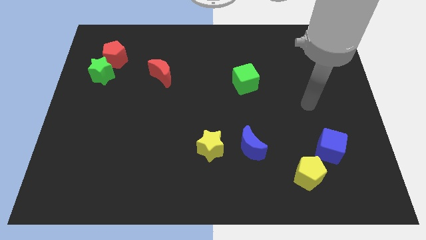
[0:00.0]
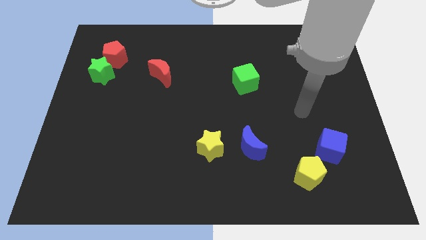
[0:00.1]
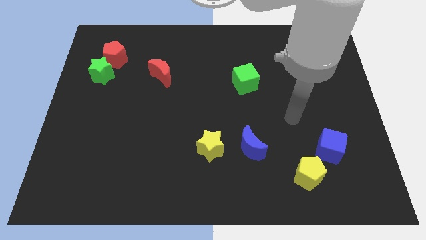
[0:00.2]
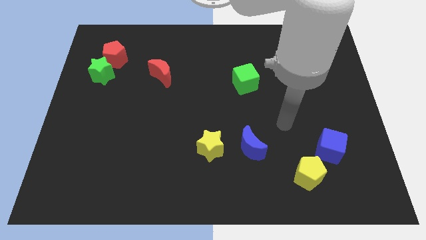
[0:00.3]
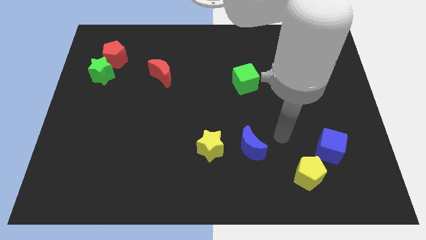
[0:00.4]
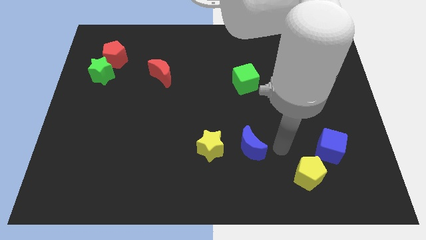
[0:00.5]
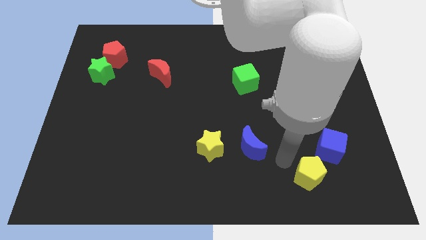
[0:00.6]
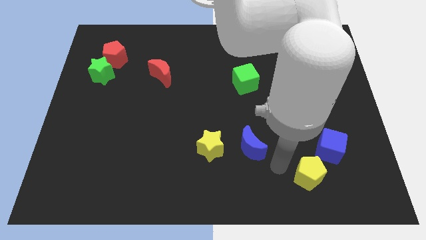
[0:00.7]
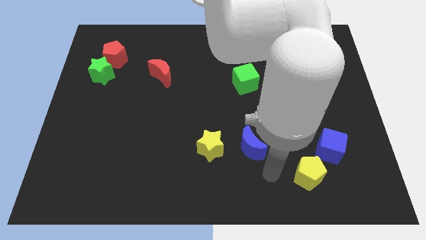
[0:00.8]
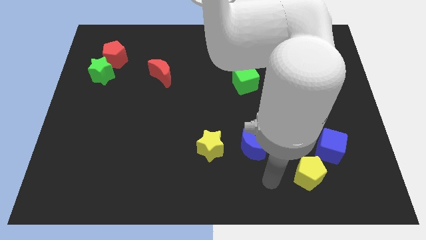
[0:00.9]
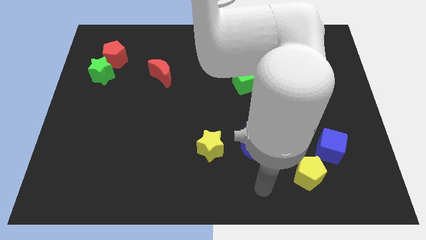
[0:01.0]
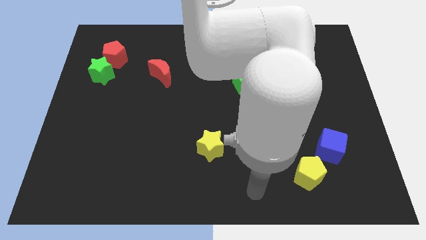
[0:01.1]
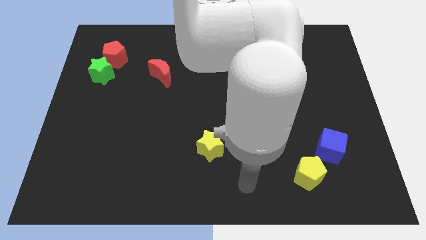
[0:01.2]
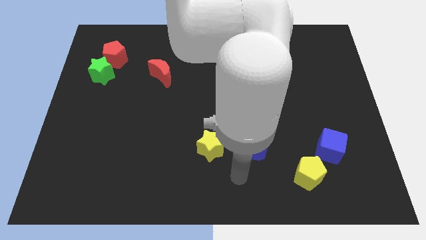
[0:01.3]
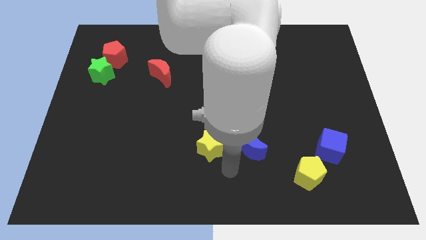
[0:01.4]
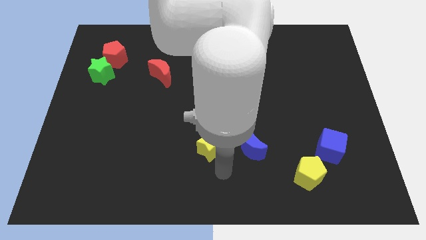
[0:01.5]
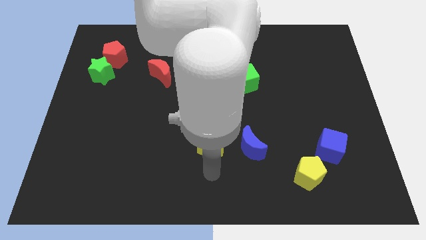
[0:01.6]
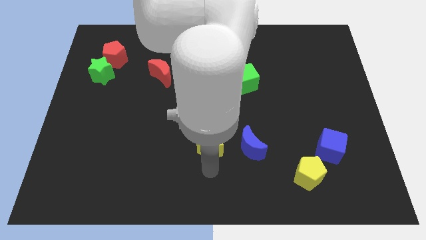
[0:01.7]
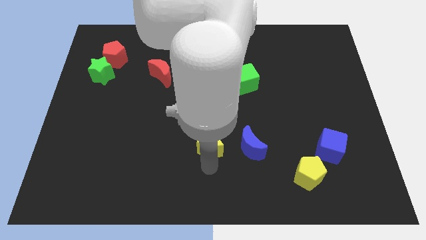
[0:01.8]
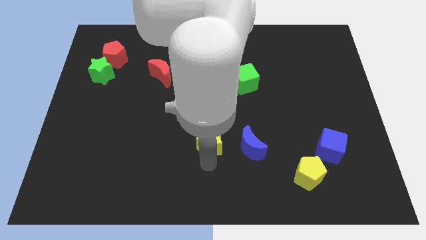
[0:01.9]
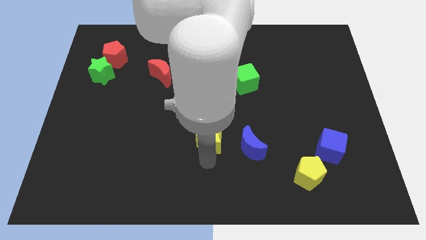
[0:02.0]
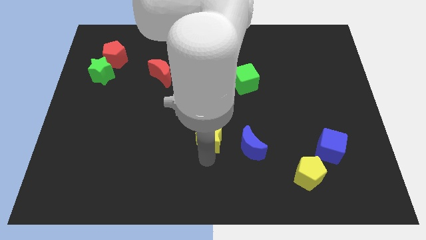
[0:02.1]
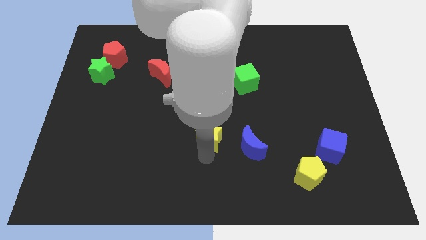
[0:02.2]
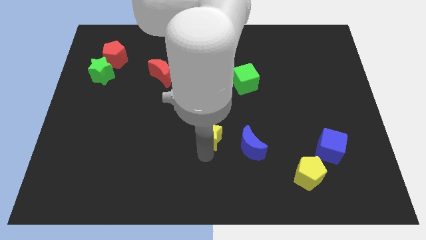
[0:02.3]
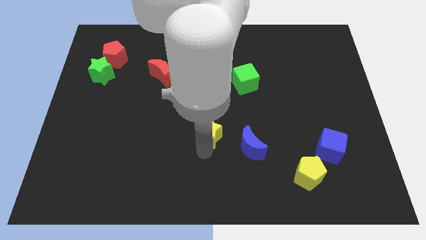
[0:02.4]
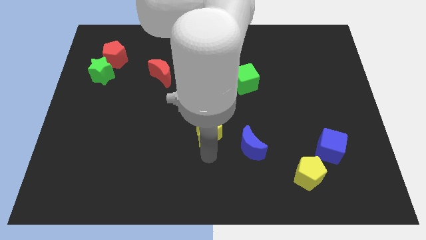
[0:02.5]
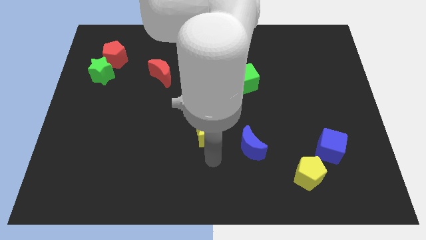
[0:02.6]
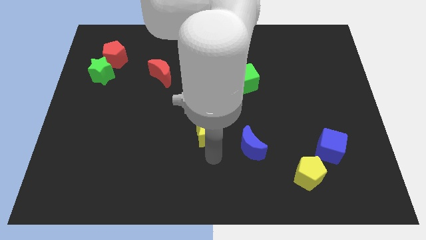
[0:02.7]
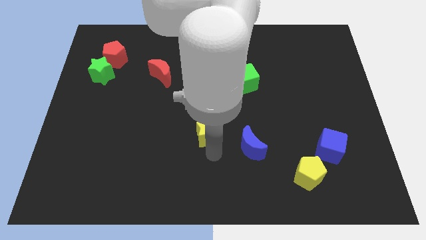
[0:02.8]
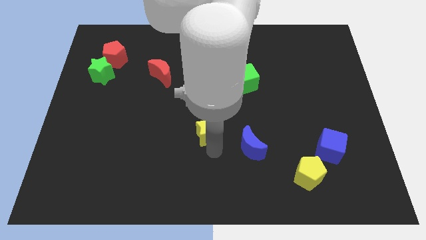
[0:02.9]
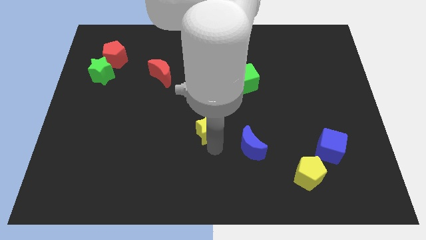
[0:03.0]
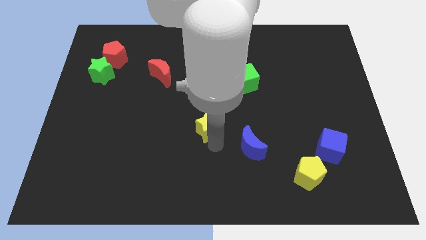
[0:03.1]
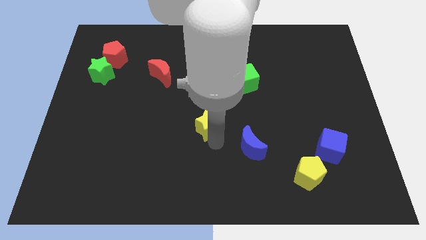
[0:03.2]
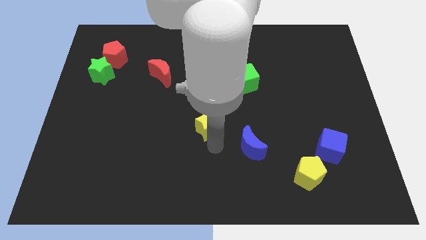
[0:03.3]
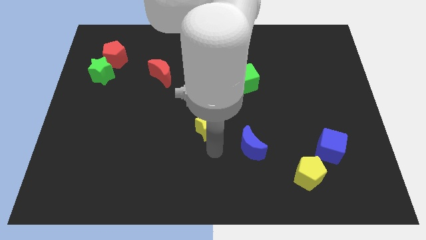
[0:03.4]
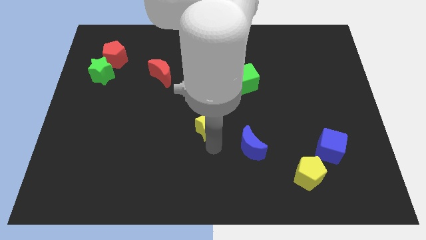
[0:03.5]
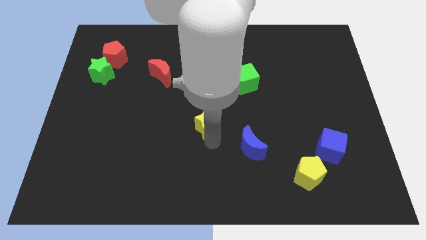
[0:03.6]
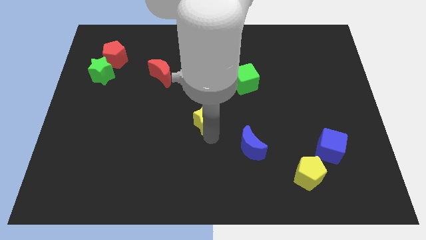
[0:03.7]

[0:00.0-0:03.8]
slide the yellow star upwards a little

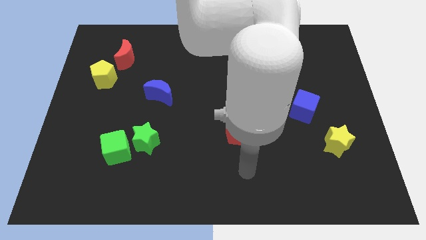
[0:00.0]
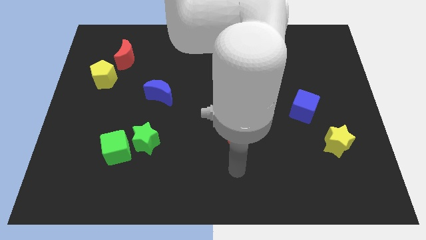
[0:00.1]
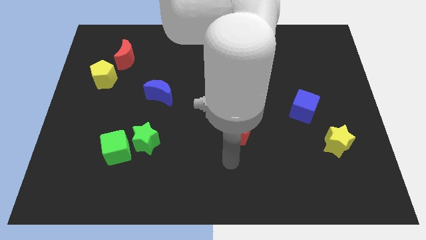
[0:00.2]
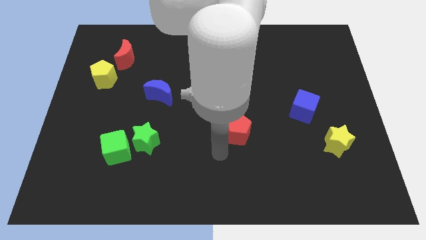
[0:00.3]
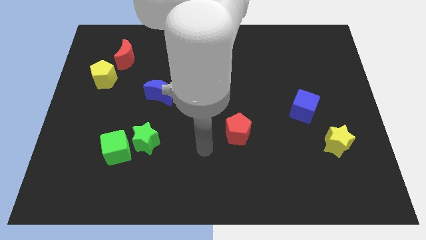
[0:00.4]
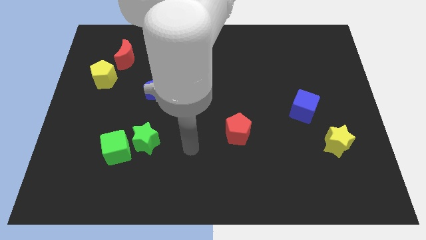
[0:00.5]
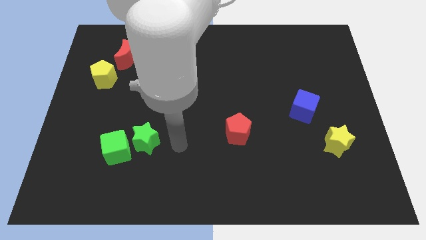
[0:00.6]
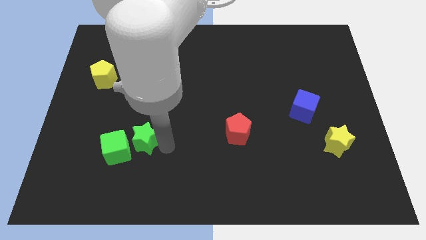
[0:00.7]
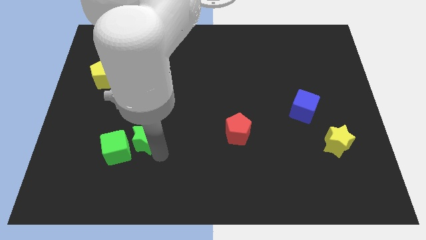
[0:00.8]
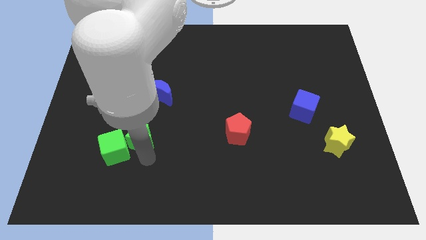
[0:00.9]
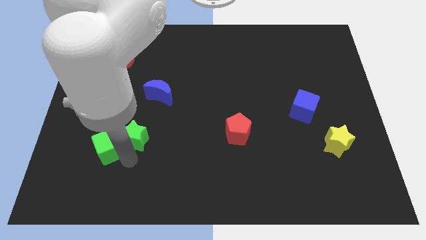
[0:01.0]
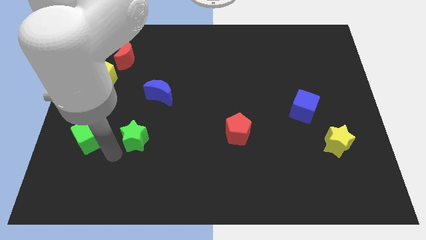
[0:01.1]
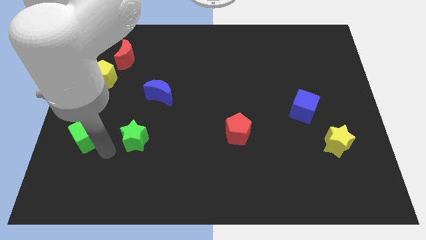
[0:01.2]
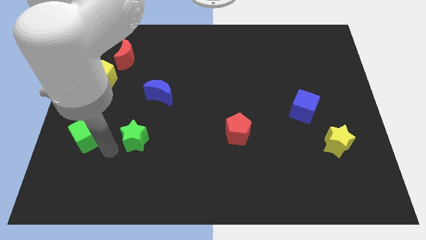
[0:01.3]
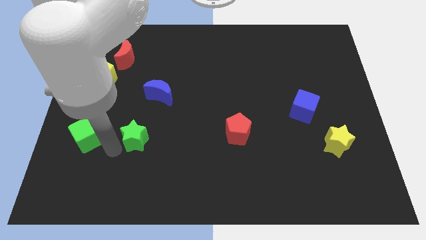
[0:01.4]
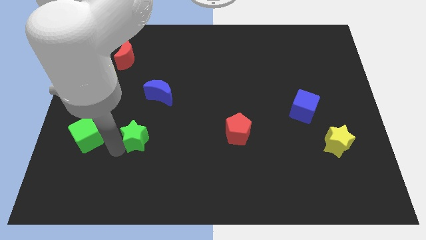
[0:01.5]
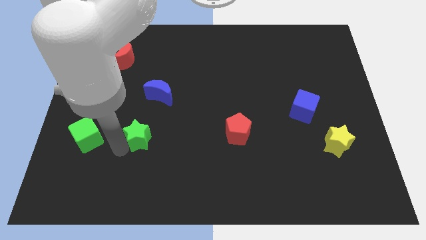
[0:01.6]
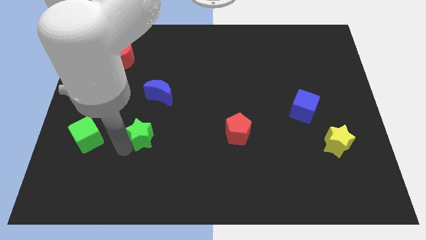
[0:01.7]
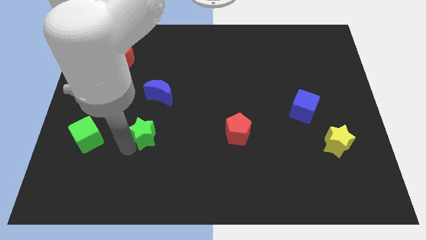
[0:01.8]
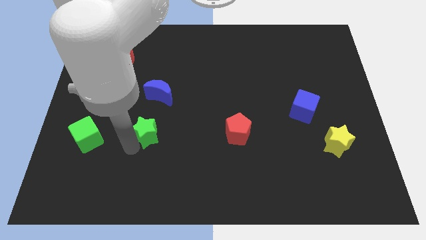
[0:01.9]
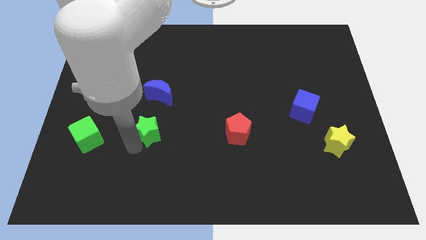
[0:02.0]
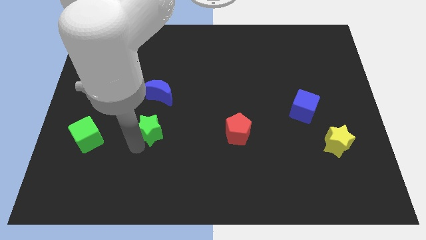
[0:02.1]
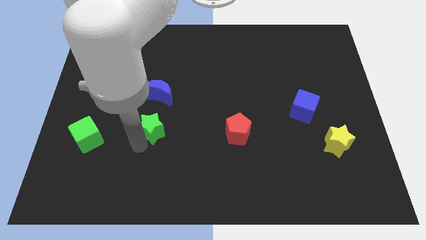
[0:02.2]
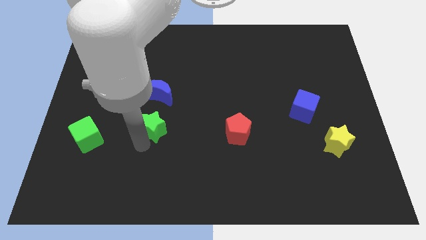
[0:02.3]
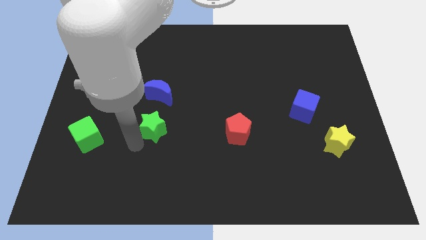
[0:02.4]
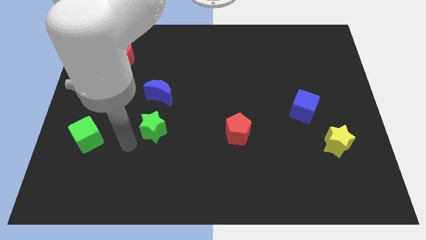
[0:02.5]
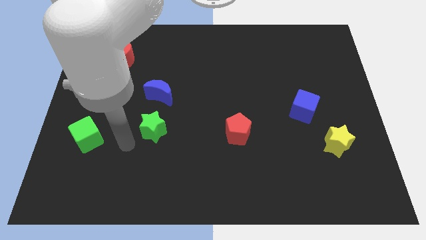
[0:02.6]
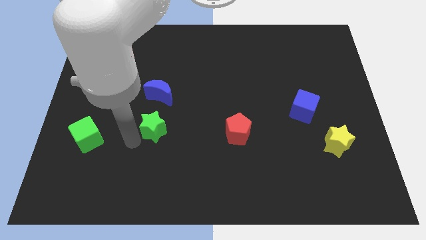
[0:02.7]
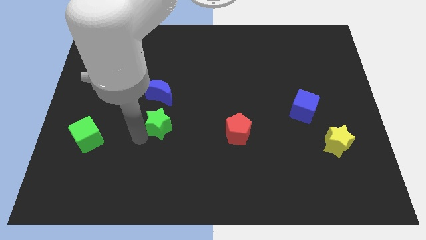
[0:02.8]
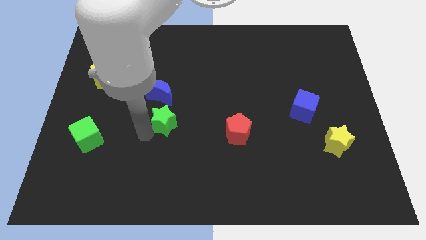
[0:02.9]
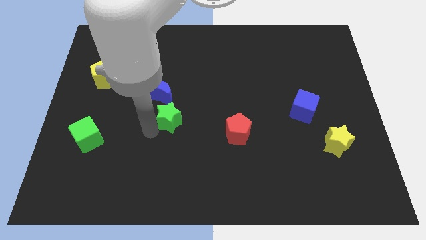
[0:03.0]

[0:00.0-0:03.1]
slightly push the green star diagonally upwards and to the right

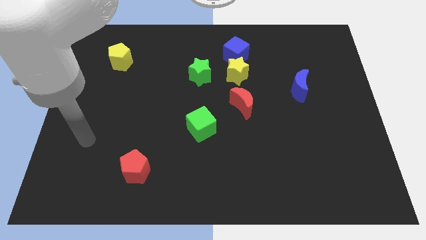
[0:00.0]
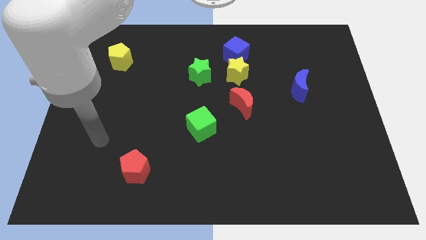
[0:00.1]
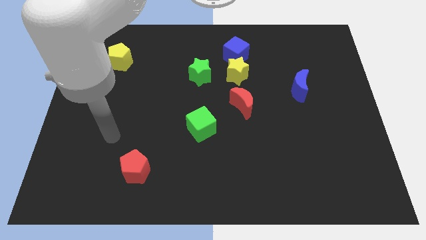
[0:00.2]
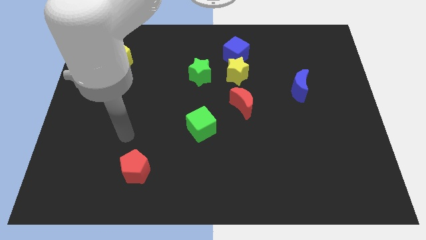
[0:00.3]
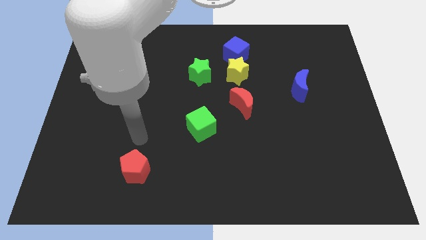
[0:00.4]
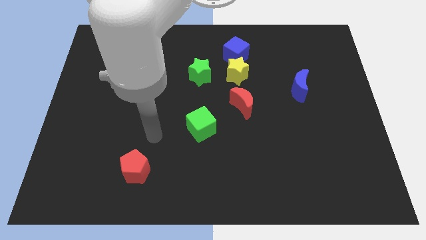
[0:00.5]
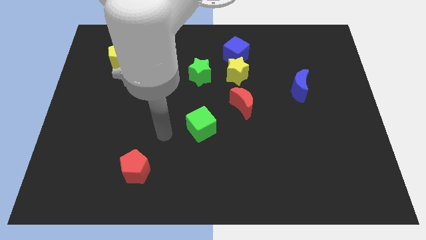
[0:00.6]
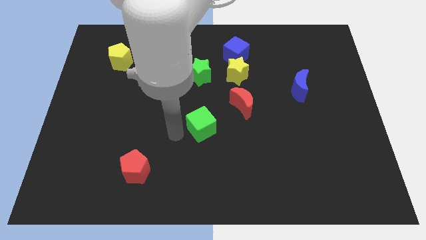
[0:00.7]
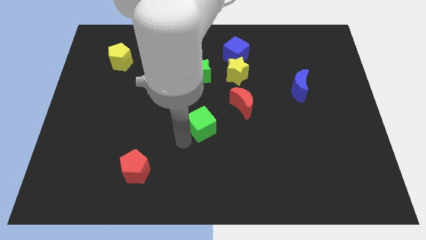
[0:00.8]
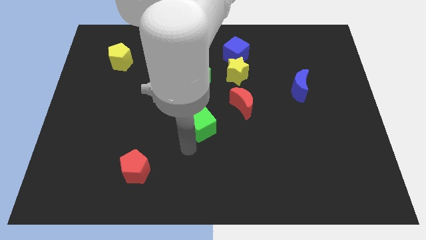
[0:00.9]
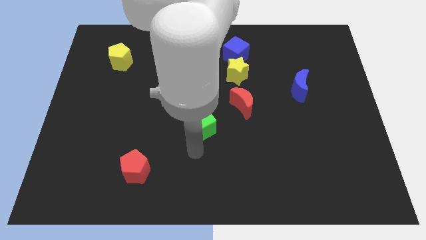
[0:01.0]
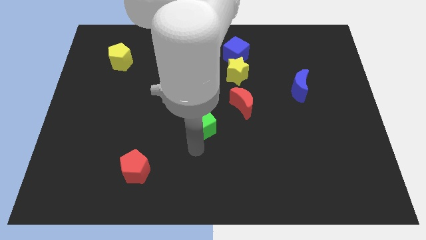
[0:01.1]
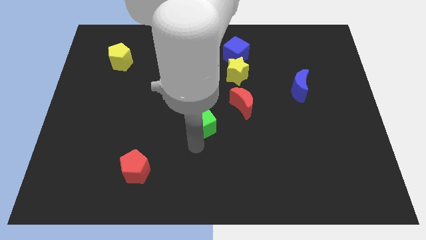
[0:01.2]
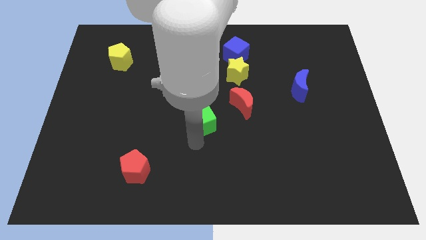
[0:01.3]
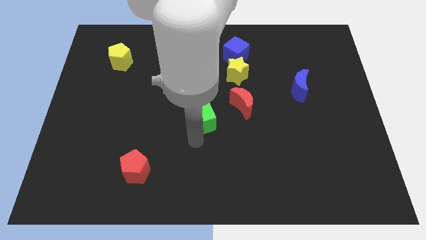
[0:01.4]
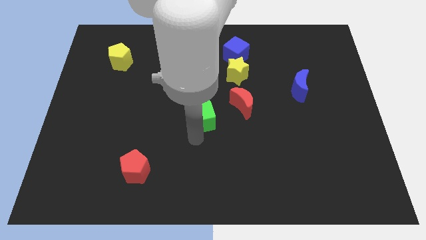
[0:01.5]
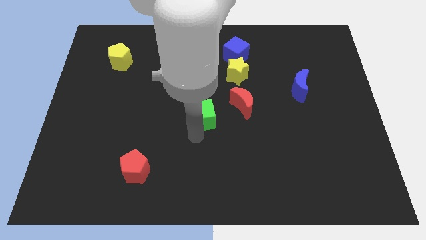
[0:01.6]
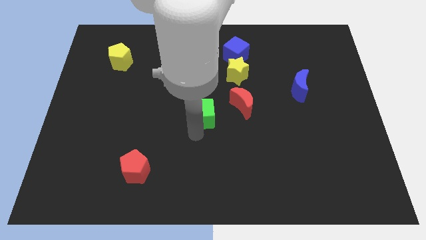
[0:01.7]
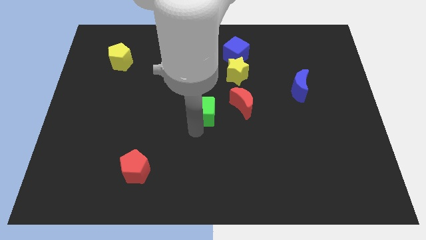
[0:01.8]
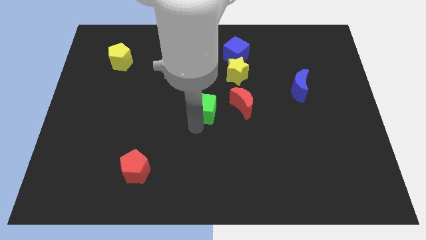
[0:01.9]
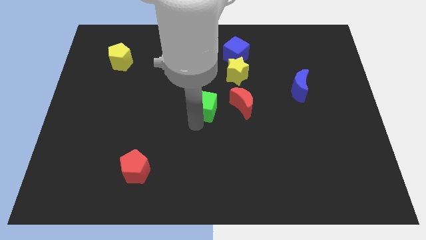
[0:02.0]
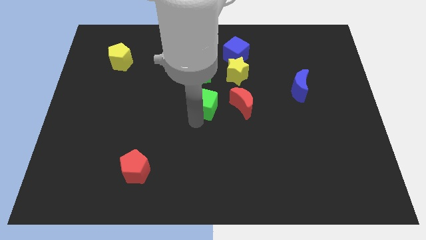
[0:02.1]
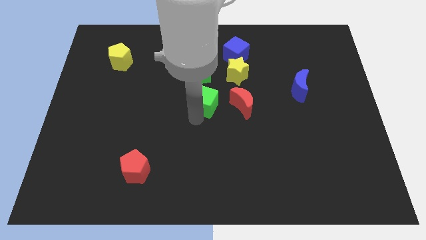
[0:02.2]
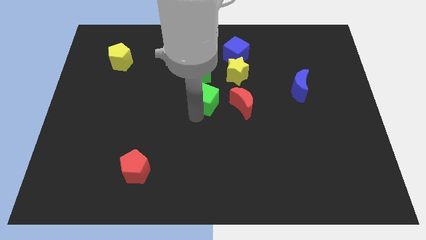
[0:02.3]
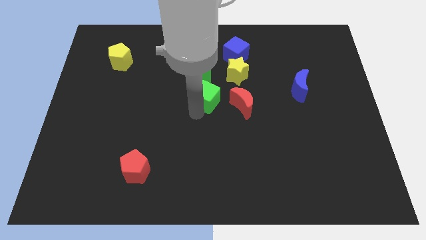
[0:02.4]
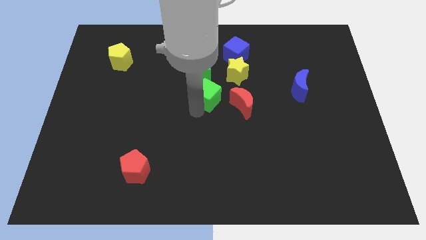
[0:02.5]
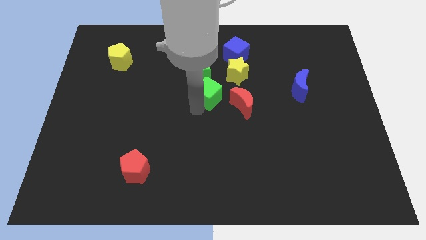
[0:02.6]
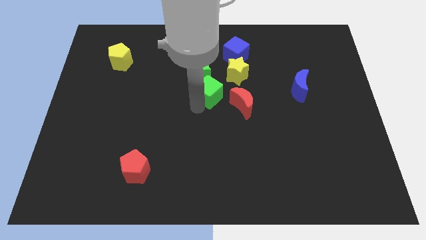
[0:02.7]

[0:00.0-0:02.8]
slightly push the green cube upwards and then right
